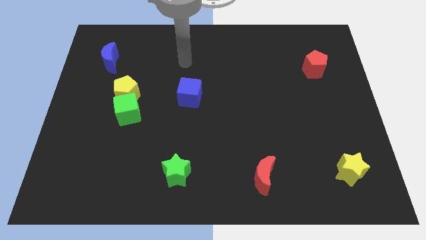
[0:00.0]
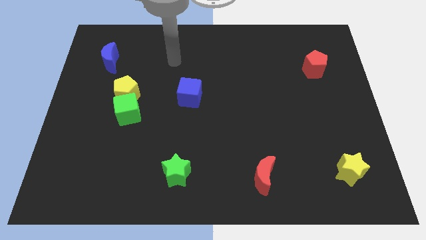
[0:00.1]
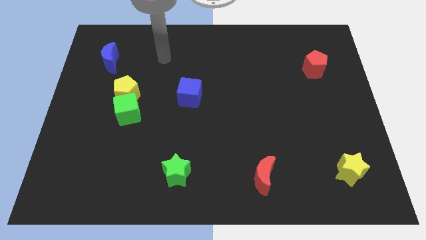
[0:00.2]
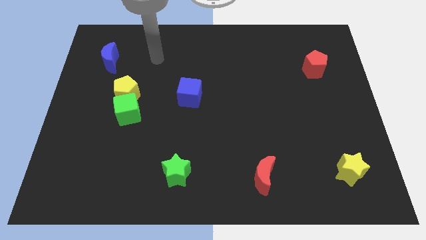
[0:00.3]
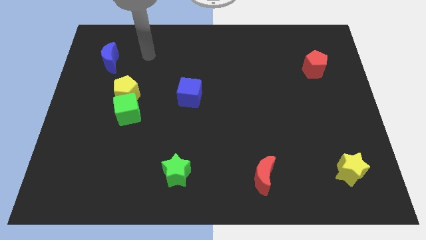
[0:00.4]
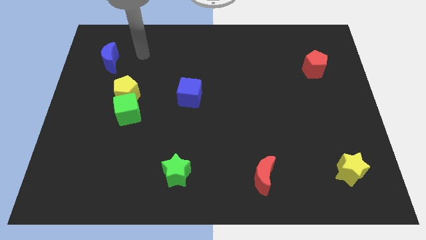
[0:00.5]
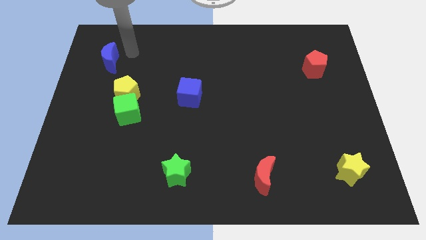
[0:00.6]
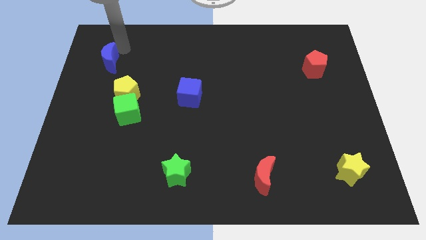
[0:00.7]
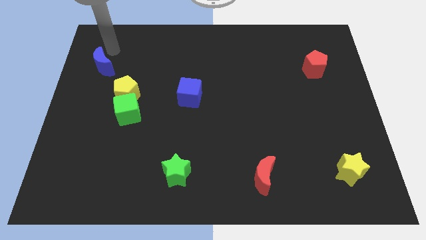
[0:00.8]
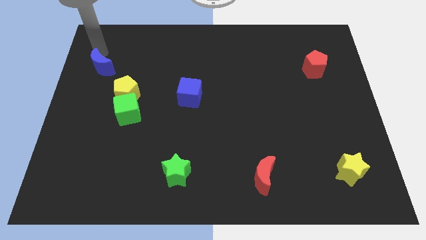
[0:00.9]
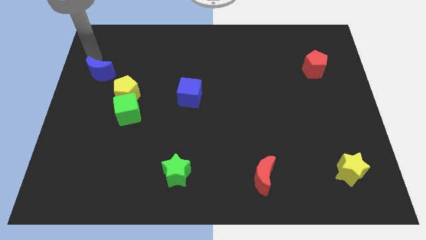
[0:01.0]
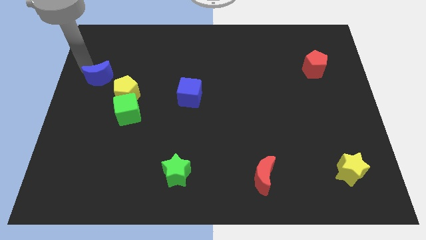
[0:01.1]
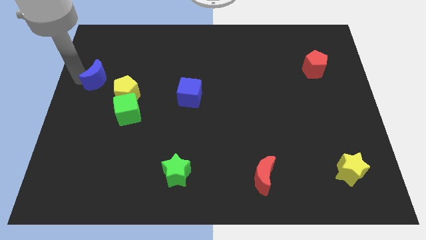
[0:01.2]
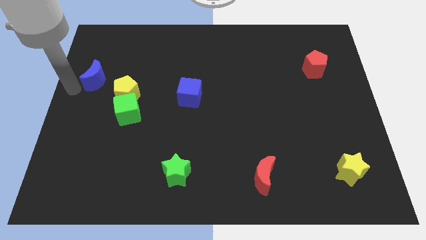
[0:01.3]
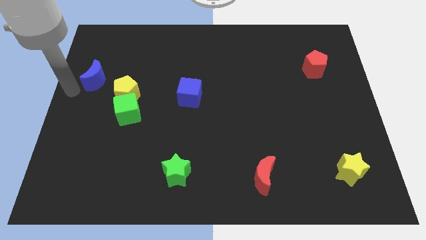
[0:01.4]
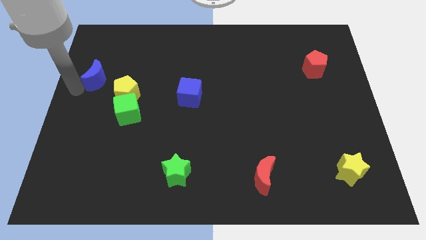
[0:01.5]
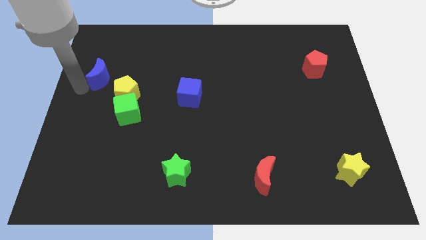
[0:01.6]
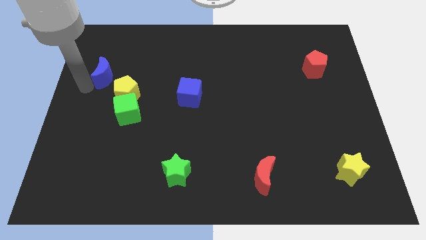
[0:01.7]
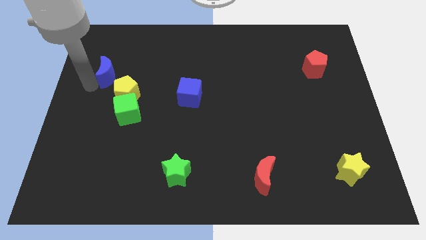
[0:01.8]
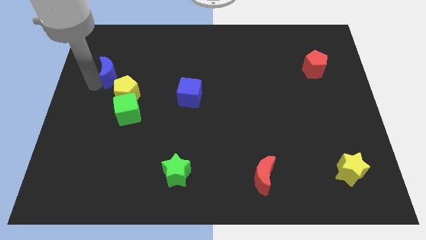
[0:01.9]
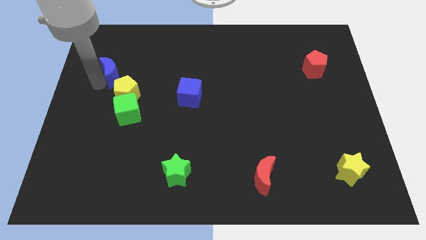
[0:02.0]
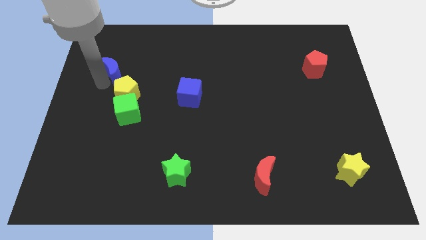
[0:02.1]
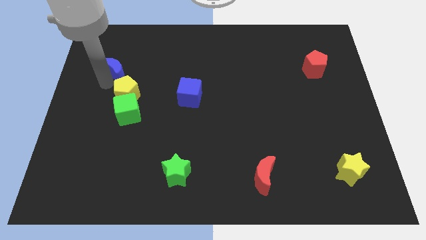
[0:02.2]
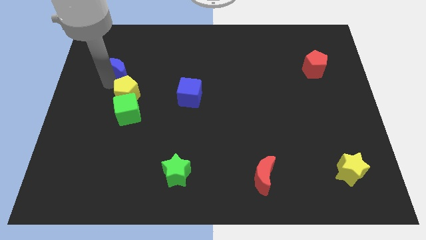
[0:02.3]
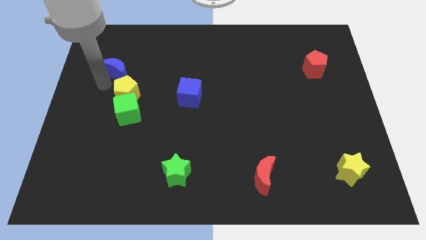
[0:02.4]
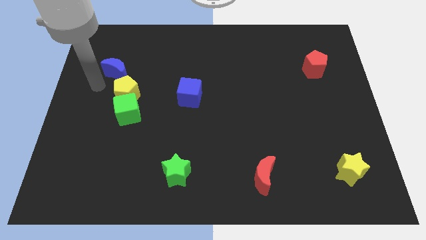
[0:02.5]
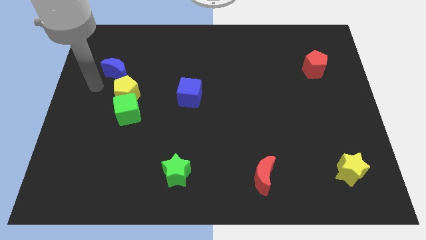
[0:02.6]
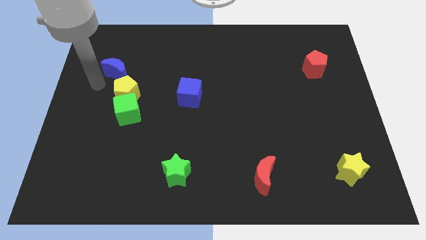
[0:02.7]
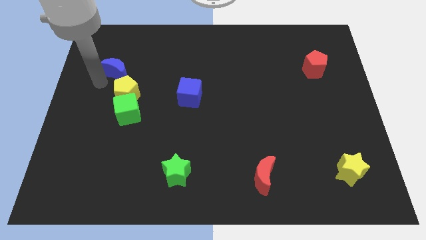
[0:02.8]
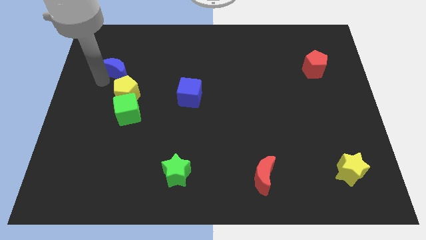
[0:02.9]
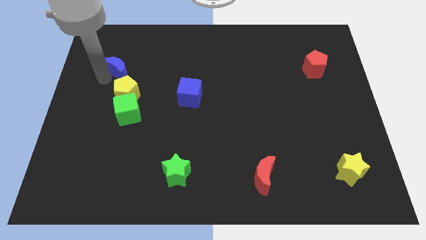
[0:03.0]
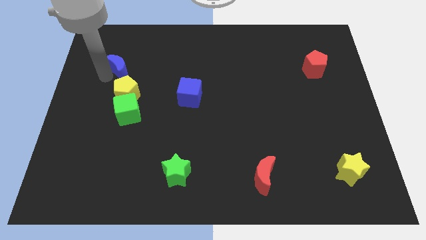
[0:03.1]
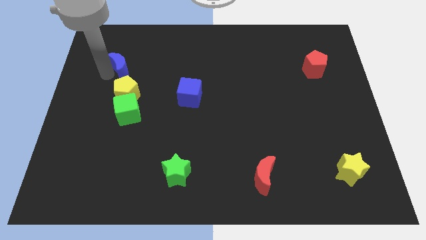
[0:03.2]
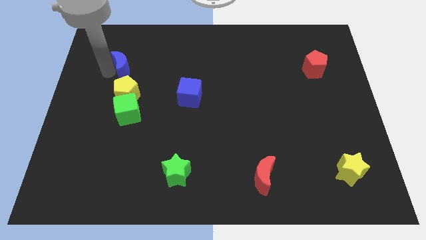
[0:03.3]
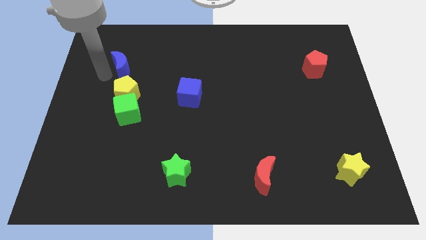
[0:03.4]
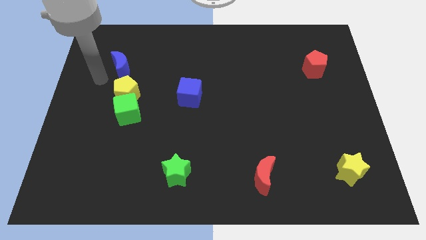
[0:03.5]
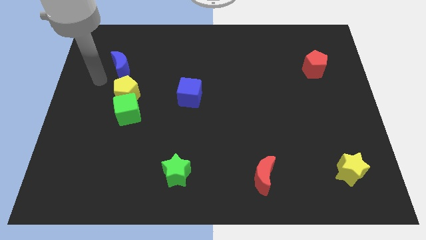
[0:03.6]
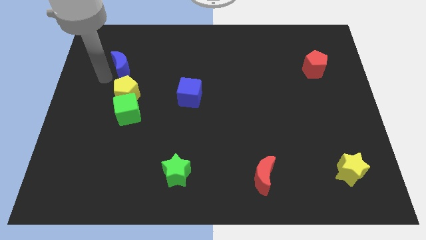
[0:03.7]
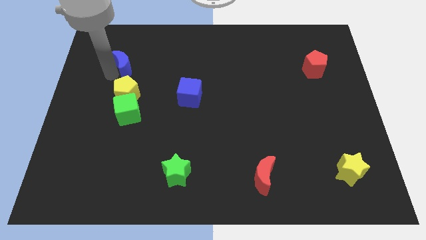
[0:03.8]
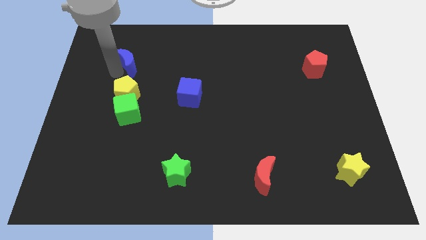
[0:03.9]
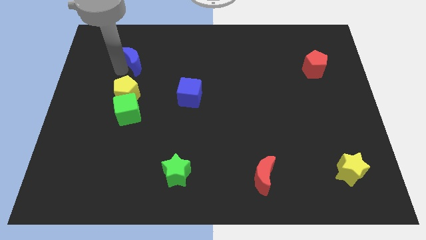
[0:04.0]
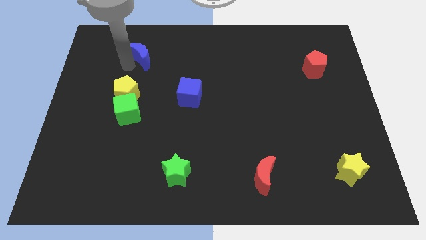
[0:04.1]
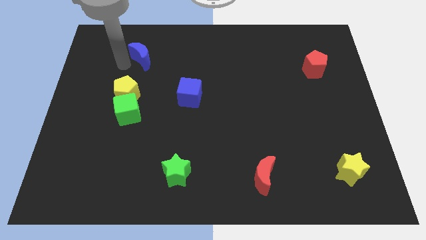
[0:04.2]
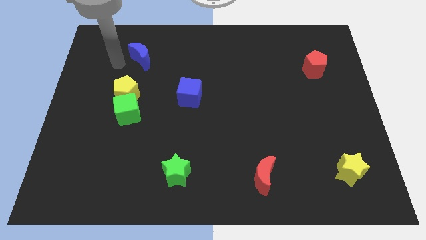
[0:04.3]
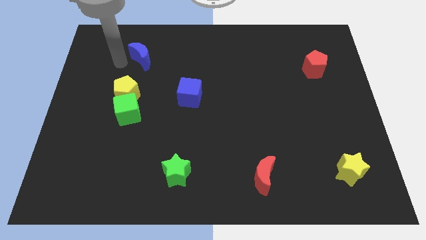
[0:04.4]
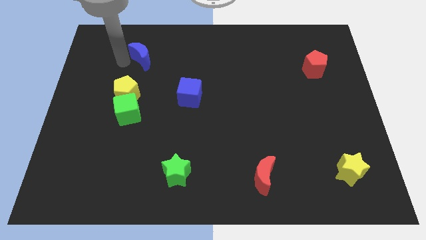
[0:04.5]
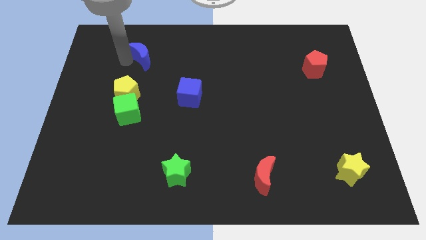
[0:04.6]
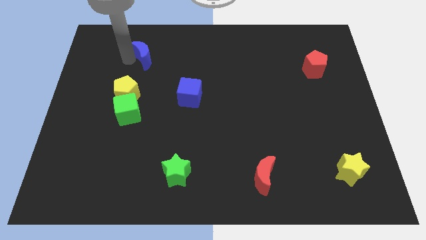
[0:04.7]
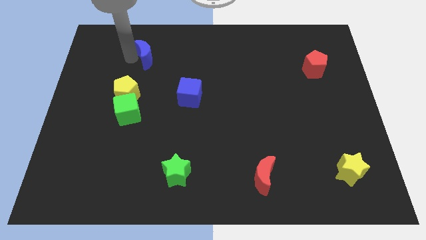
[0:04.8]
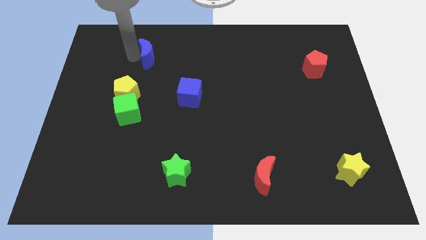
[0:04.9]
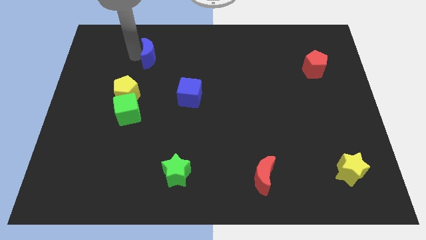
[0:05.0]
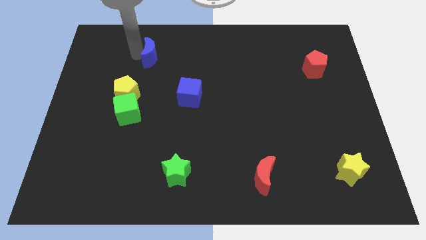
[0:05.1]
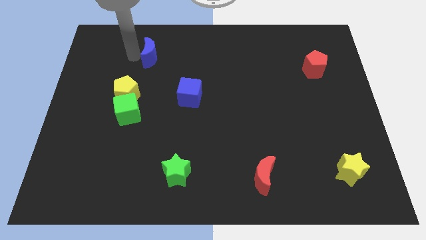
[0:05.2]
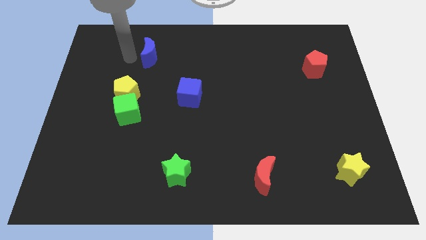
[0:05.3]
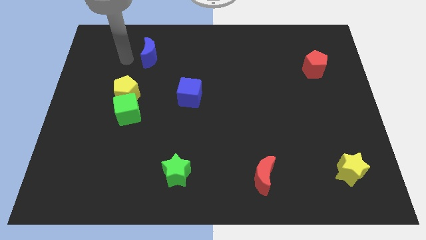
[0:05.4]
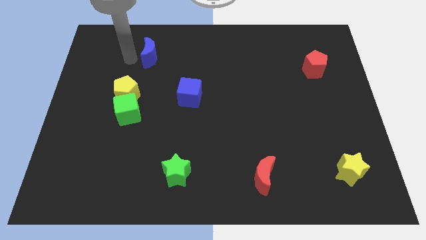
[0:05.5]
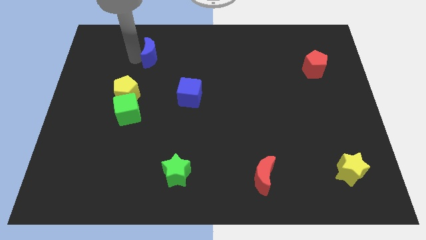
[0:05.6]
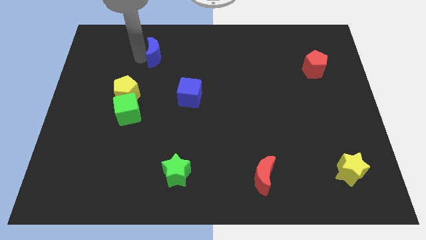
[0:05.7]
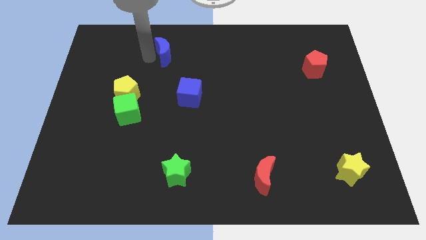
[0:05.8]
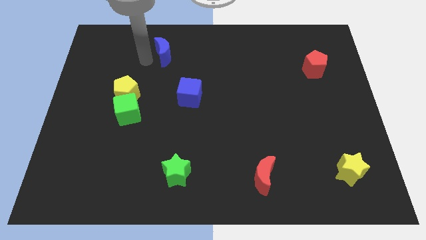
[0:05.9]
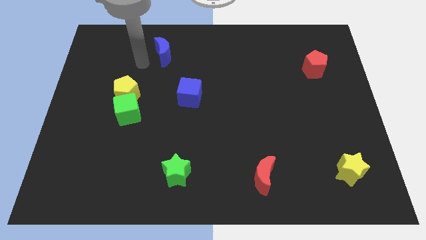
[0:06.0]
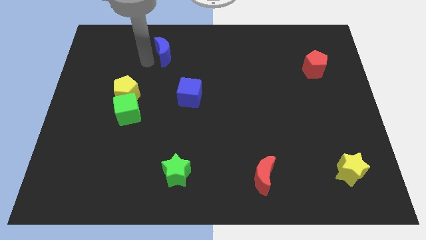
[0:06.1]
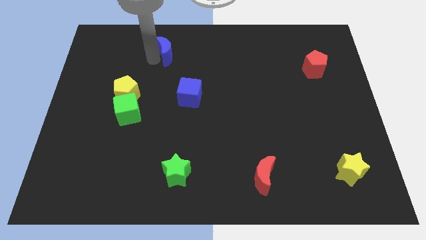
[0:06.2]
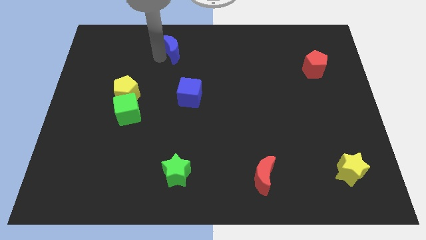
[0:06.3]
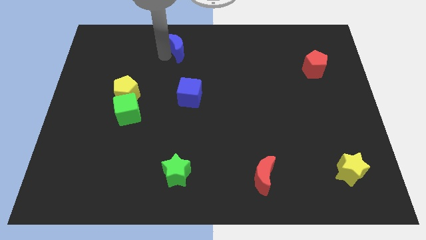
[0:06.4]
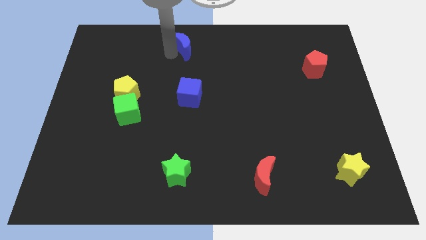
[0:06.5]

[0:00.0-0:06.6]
slide the blue moon to the towards your base

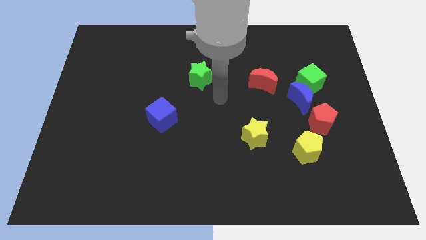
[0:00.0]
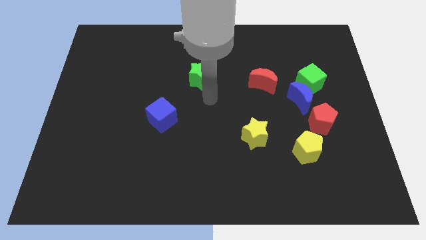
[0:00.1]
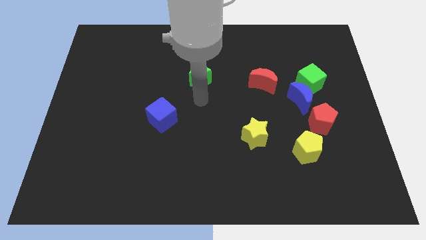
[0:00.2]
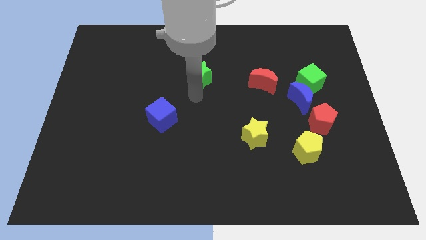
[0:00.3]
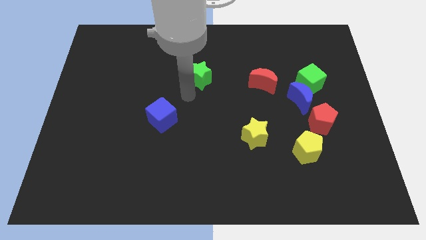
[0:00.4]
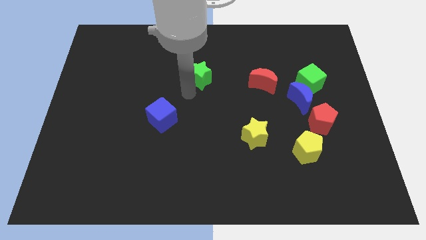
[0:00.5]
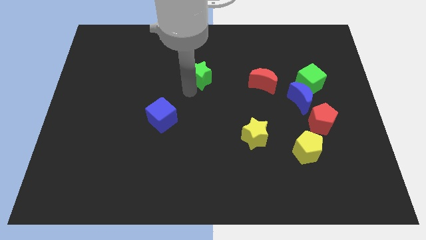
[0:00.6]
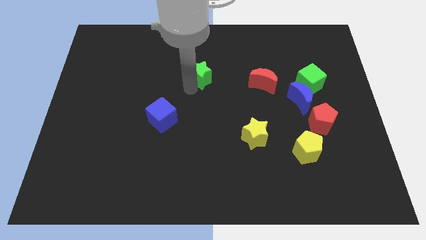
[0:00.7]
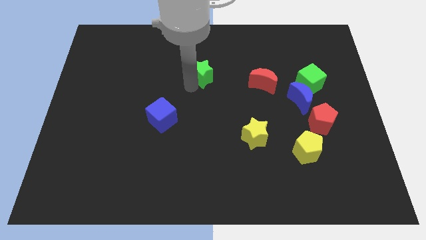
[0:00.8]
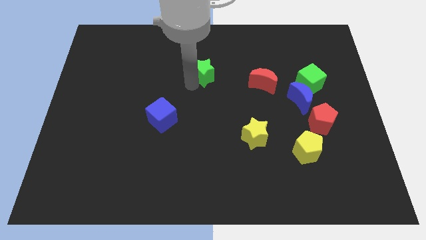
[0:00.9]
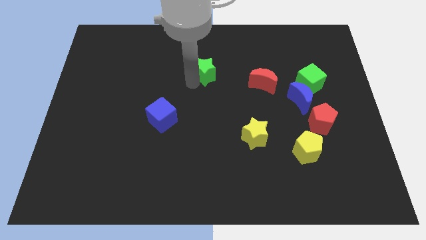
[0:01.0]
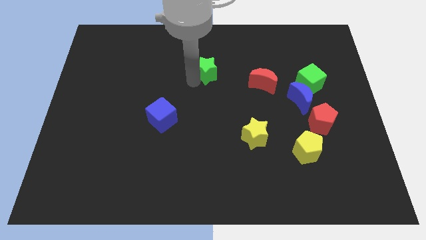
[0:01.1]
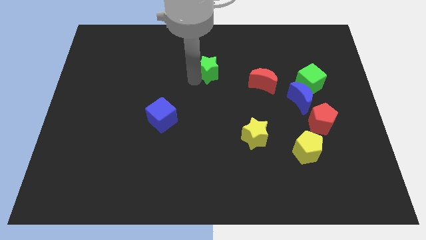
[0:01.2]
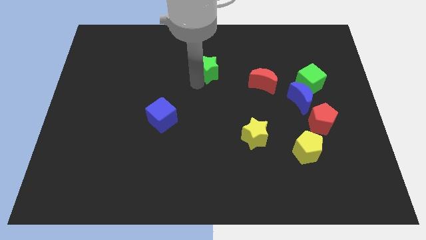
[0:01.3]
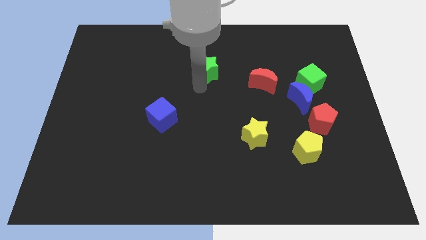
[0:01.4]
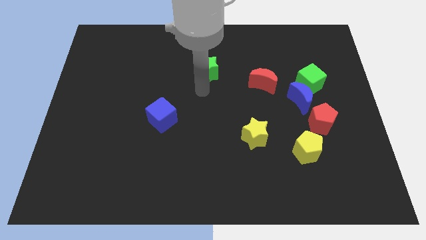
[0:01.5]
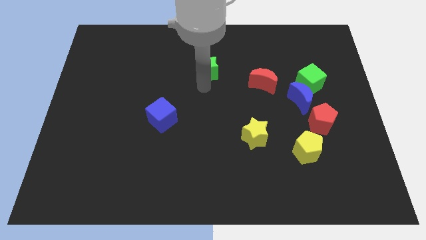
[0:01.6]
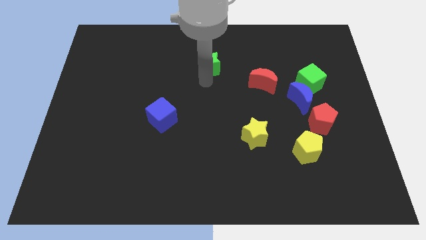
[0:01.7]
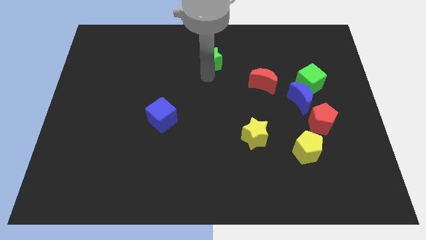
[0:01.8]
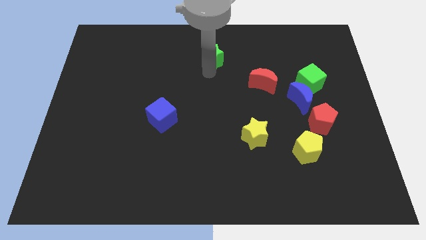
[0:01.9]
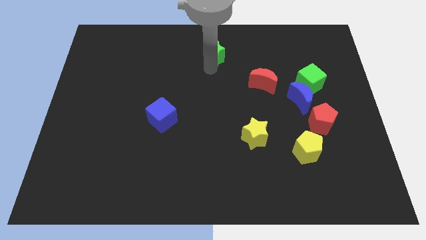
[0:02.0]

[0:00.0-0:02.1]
move the green star to the top side
